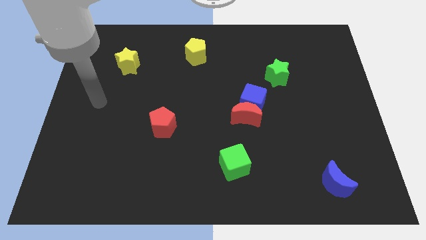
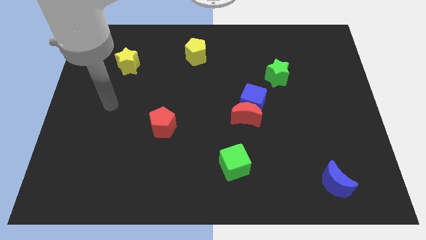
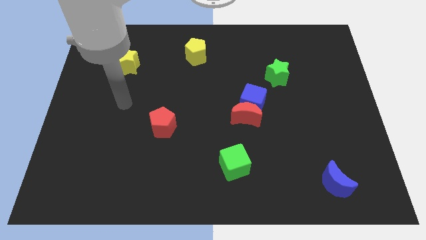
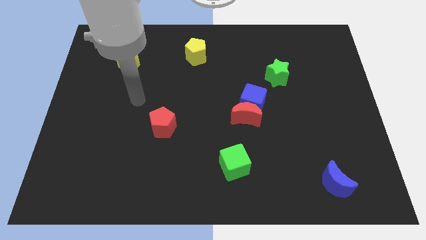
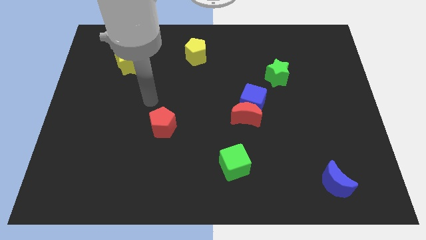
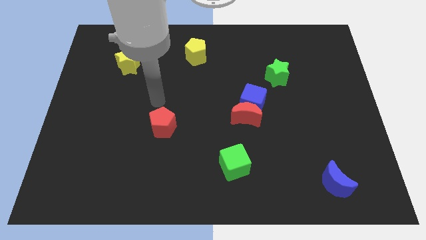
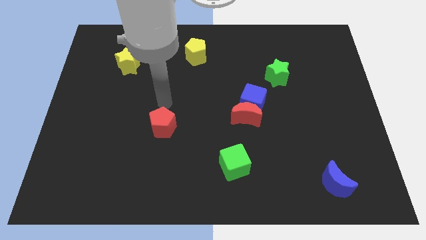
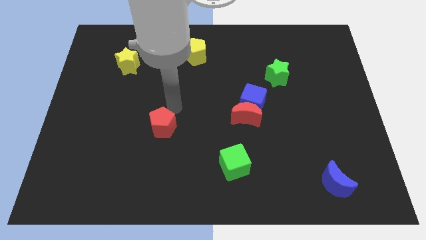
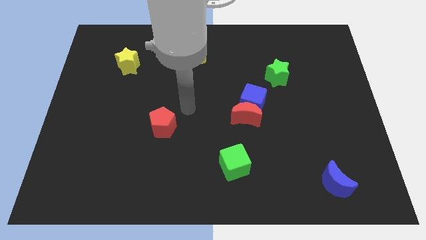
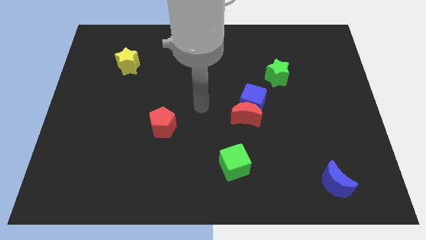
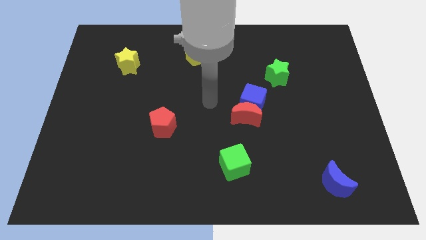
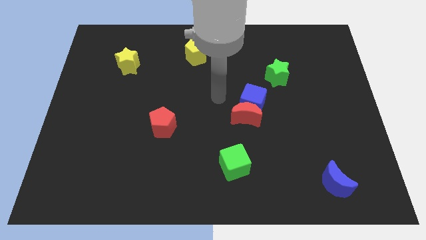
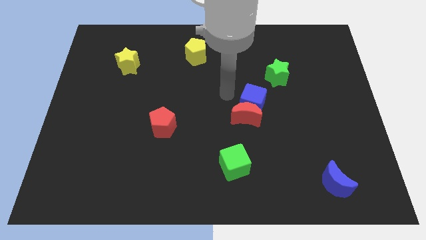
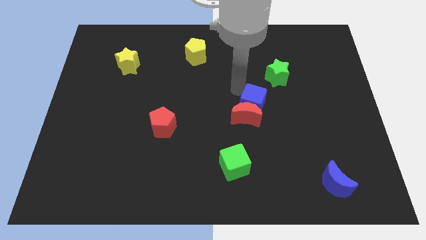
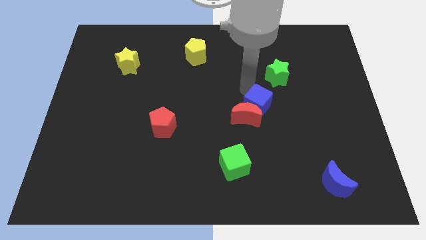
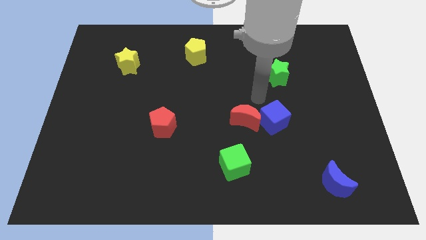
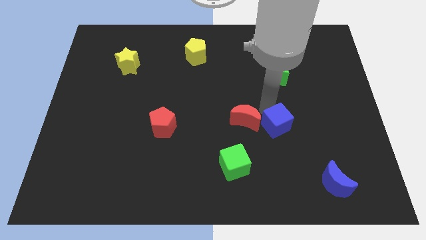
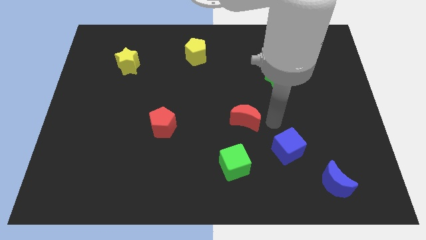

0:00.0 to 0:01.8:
pull the red moon apart from the blue cube

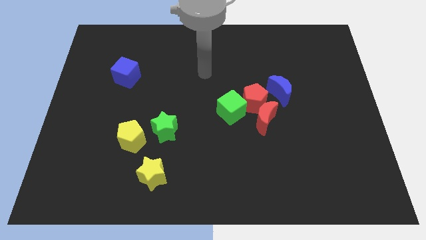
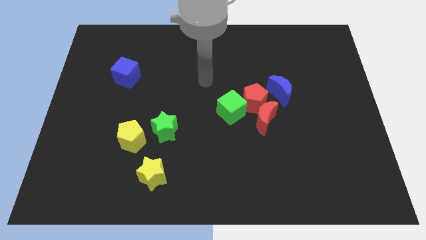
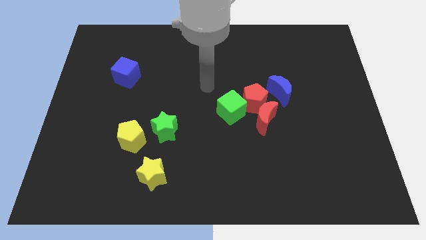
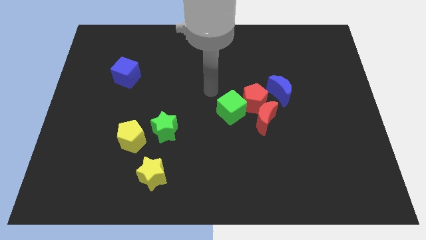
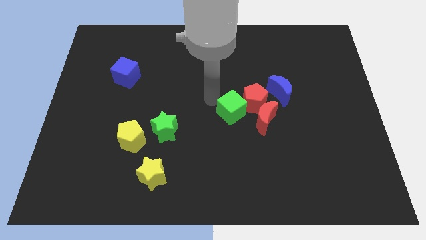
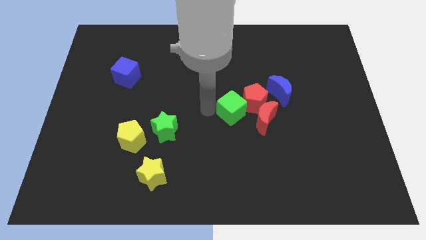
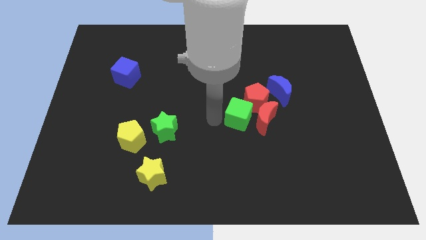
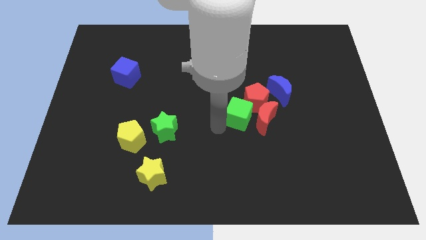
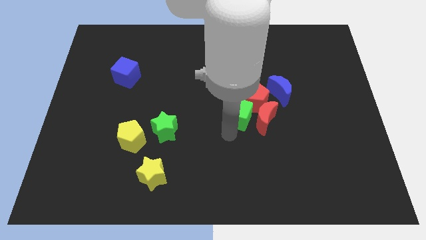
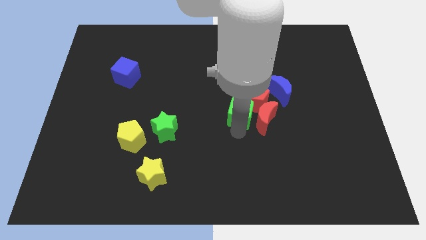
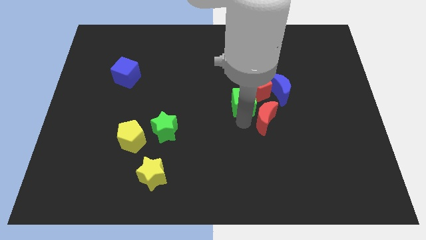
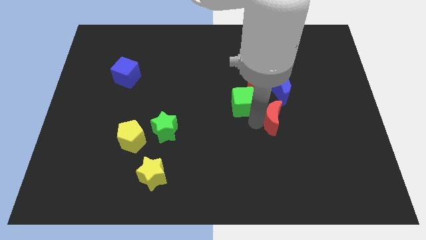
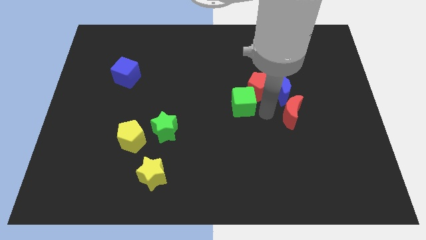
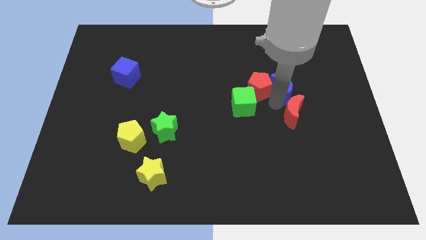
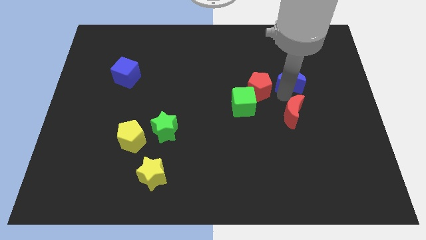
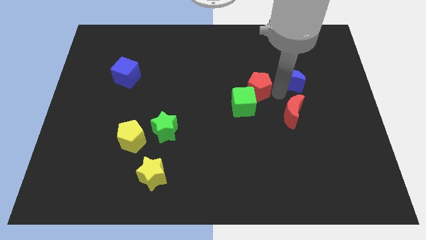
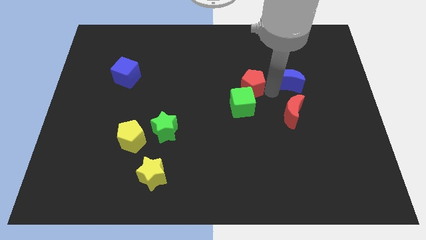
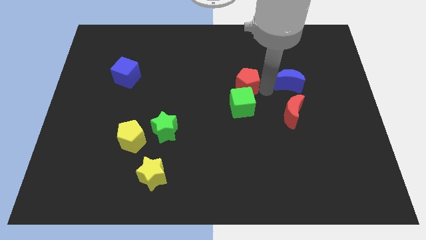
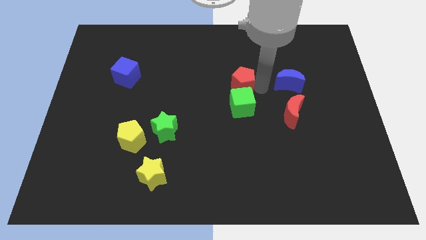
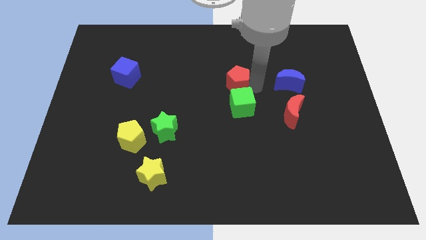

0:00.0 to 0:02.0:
pull the red pentagon apart from the red moon, green cube, and blue moon

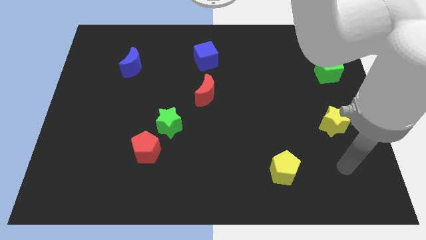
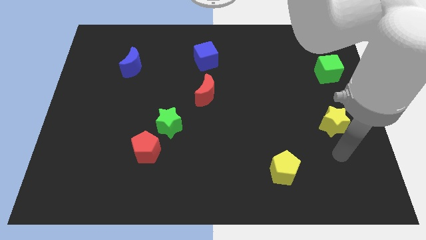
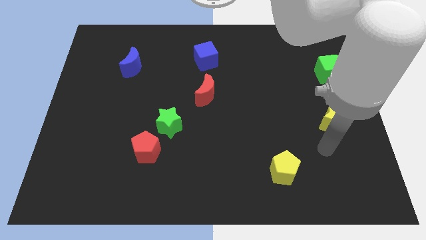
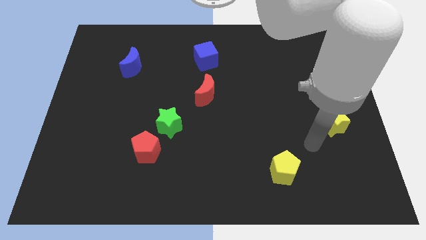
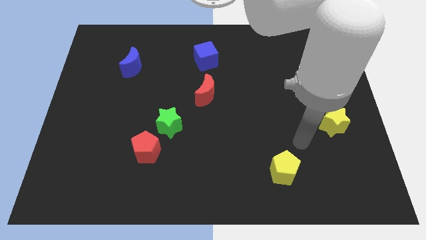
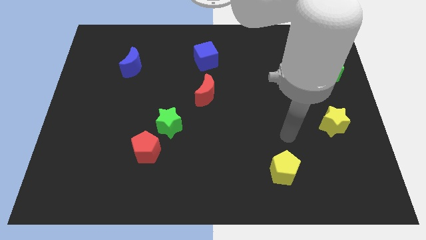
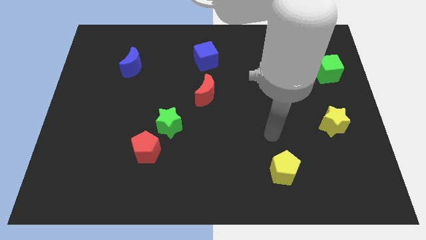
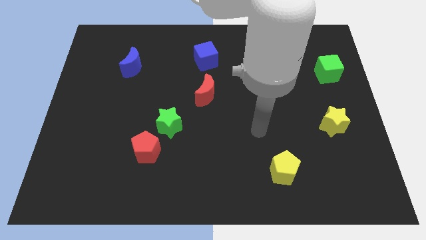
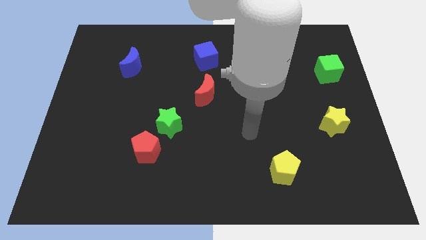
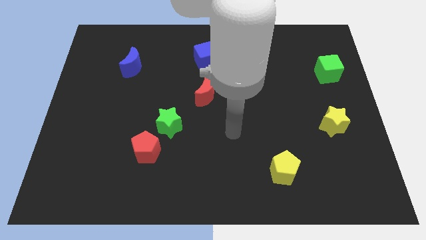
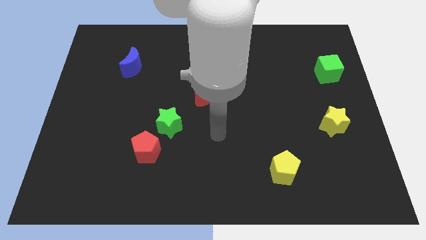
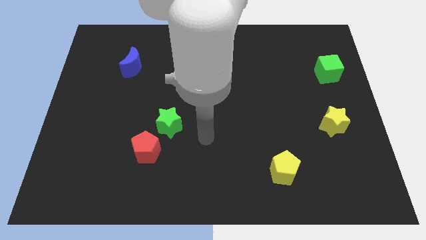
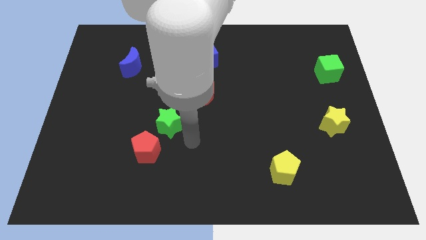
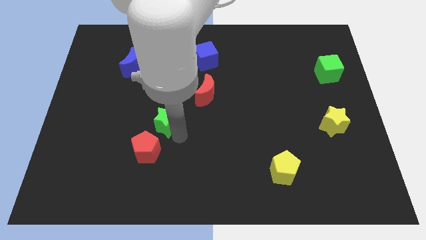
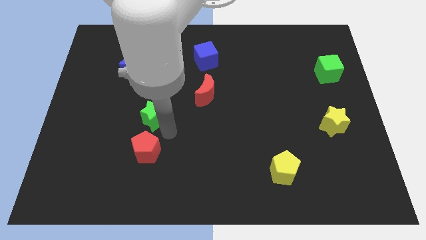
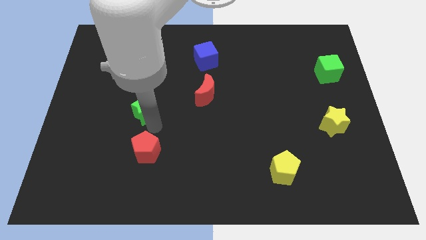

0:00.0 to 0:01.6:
pull the red pentagon apart from the green star

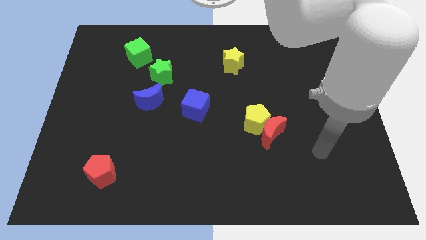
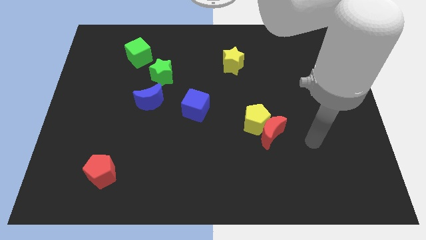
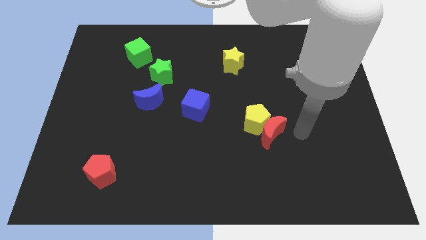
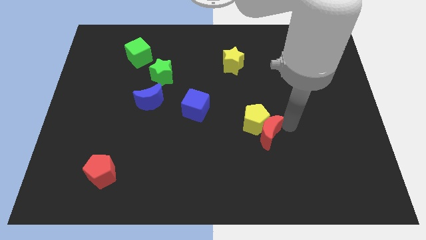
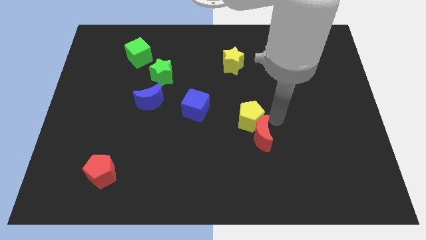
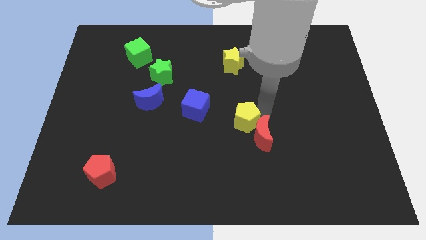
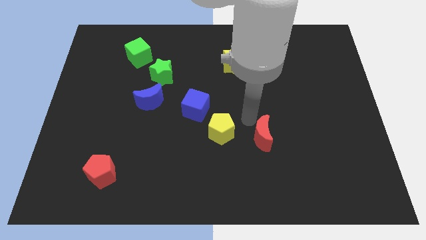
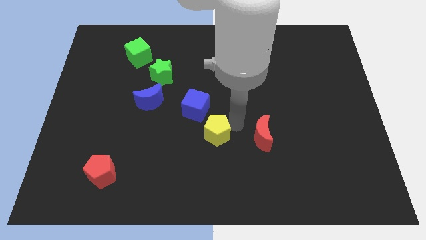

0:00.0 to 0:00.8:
pull the red moon apart from the yellow pentagon

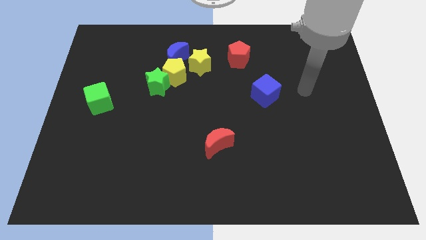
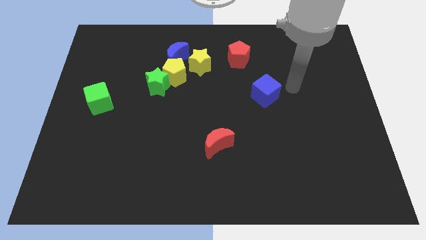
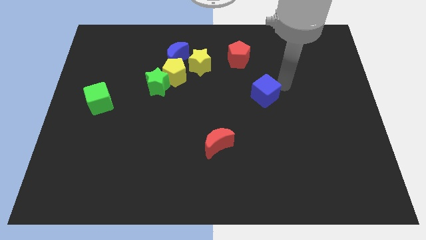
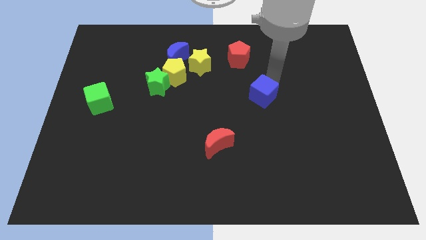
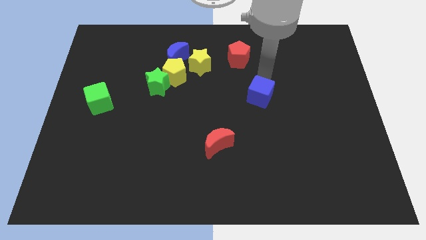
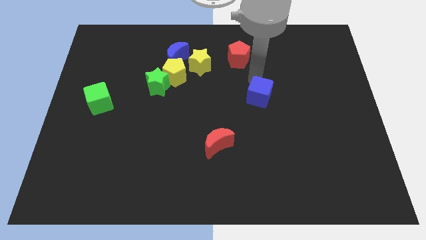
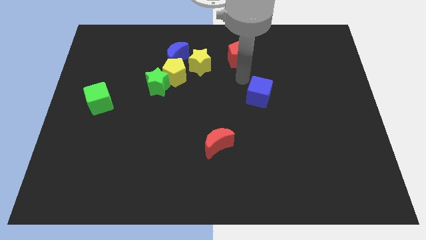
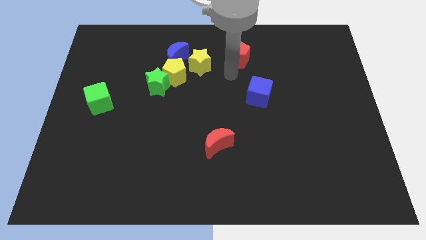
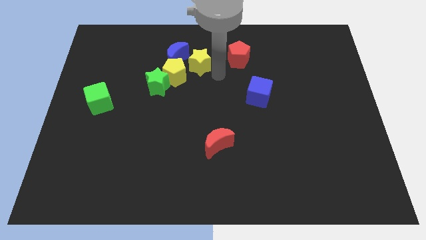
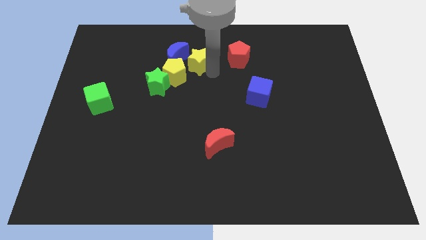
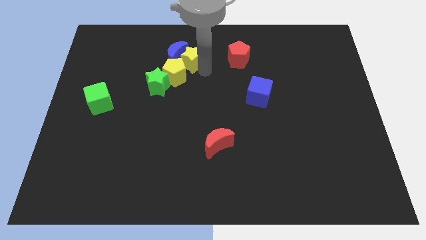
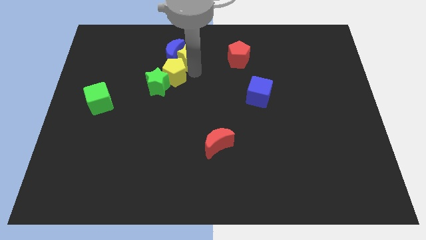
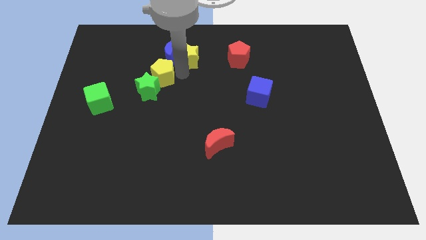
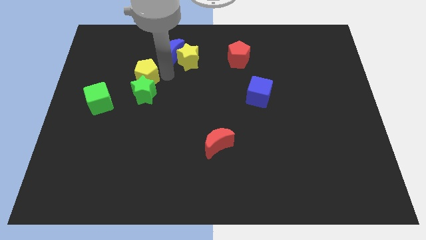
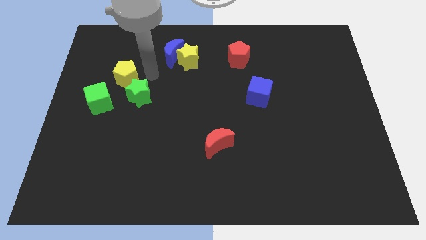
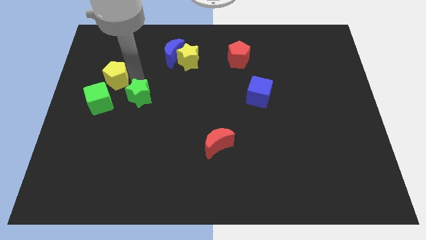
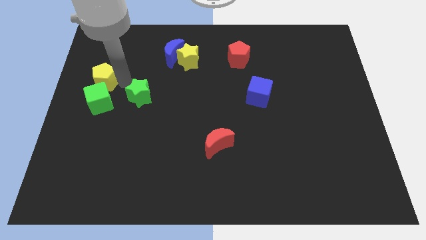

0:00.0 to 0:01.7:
separate the green star from the yellow pentagon

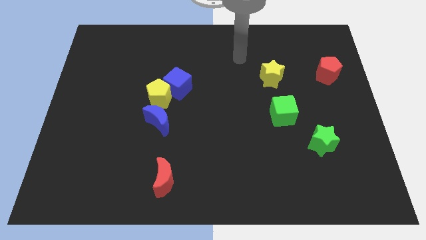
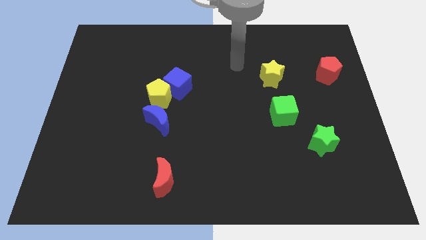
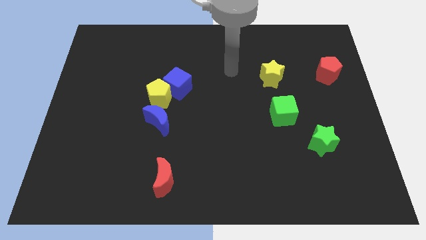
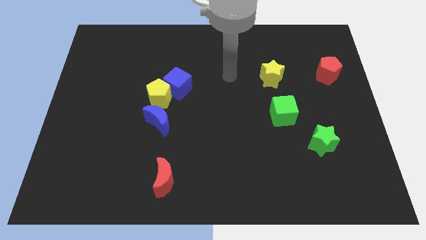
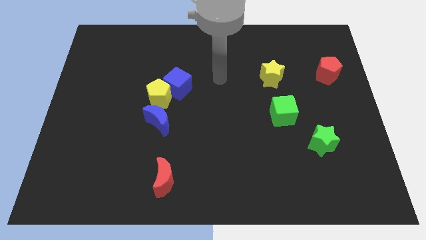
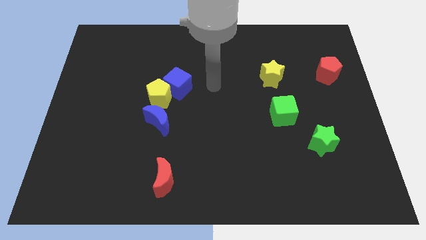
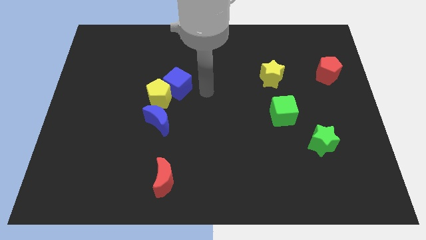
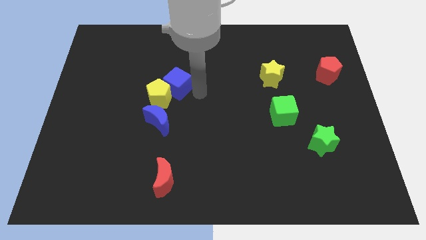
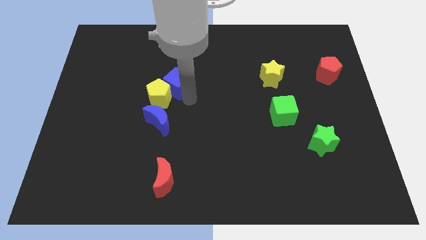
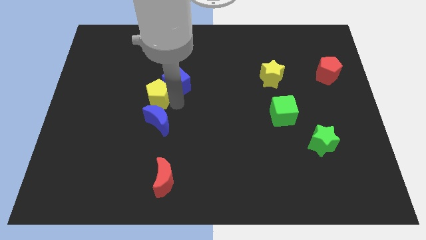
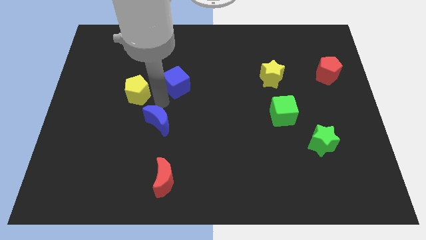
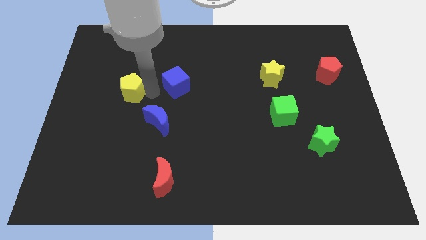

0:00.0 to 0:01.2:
pull the blue cube apart from the yellow pentagon
